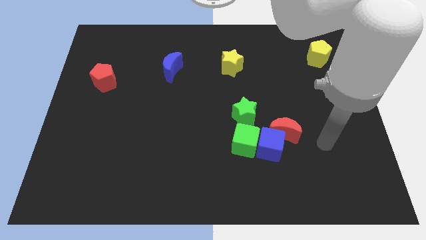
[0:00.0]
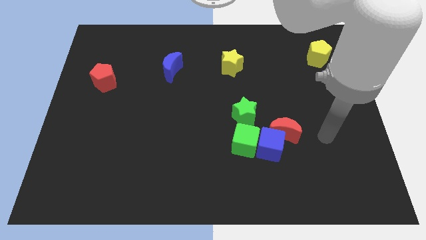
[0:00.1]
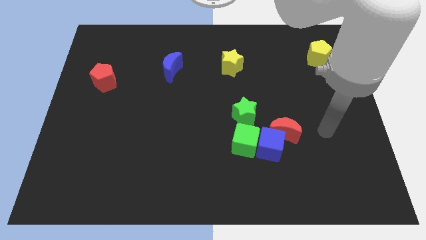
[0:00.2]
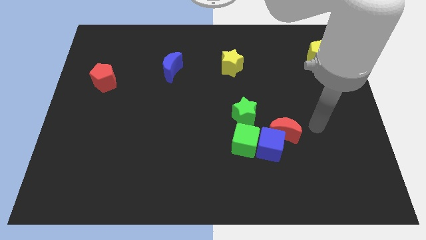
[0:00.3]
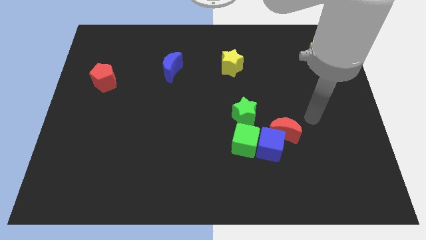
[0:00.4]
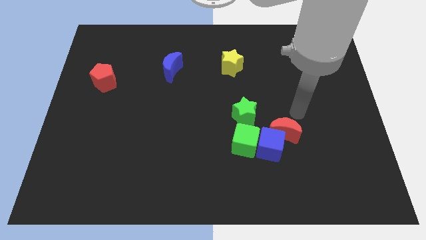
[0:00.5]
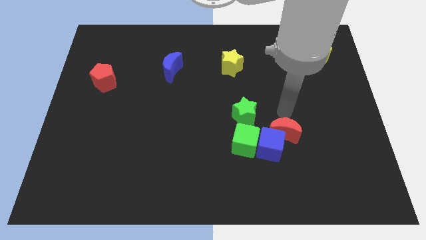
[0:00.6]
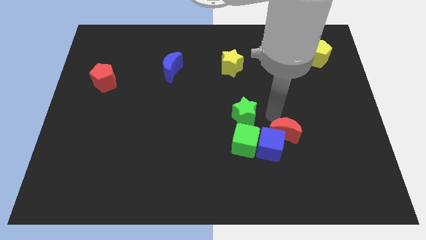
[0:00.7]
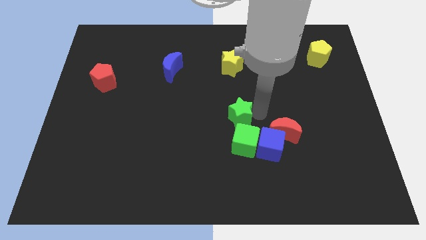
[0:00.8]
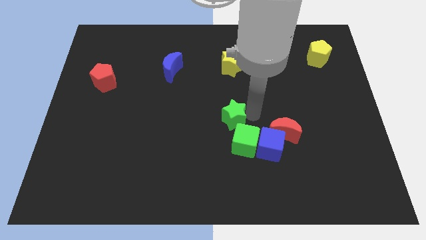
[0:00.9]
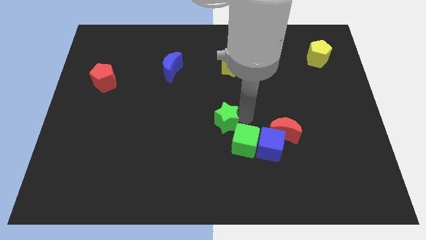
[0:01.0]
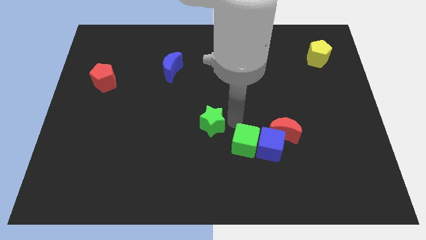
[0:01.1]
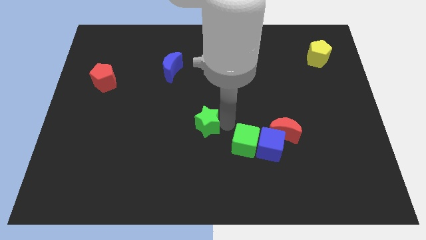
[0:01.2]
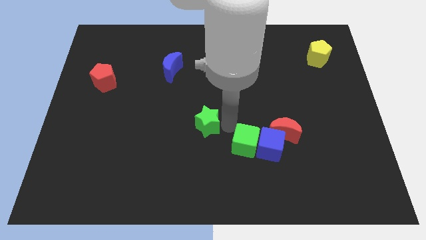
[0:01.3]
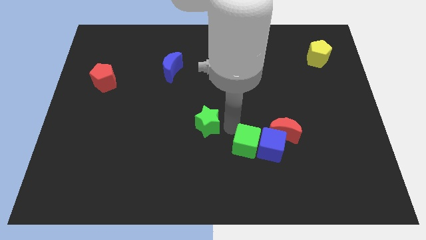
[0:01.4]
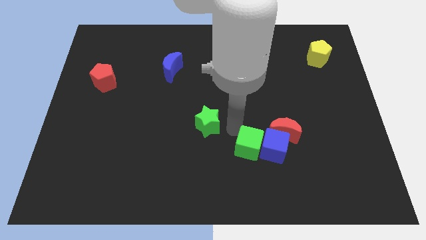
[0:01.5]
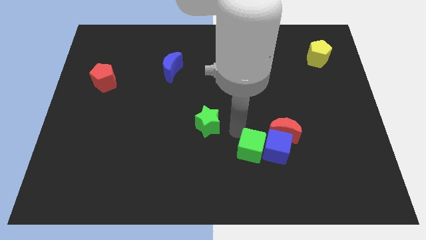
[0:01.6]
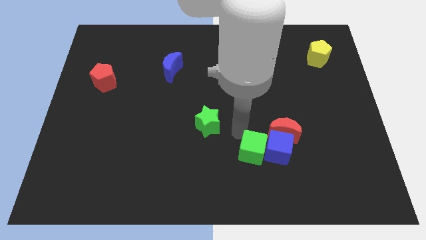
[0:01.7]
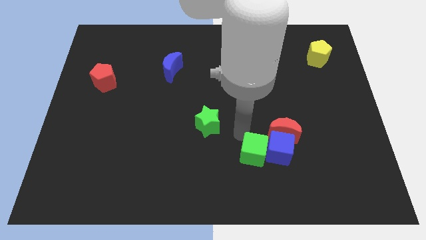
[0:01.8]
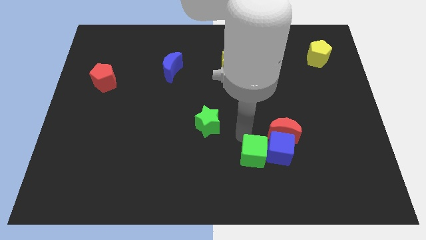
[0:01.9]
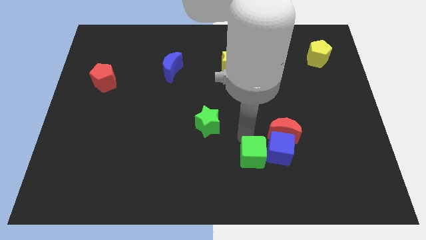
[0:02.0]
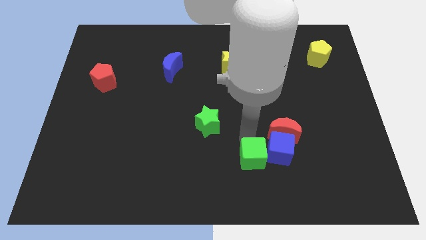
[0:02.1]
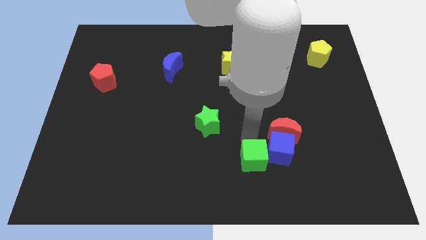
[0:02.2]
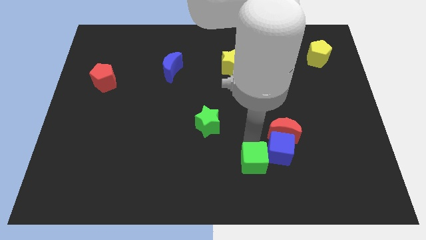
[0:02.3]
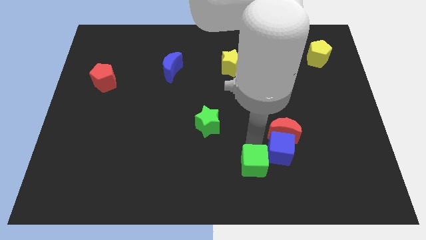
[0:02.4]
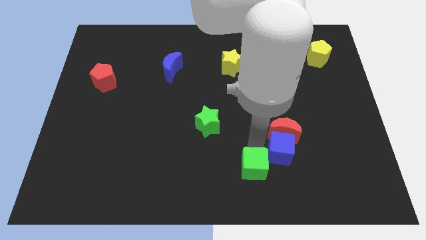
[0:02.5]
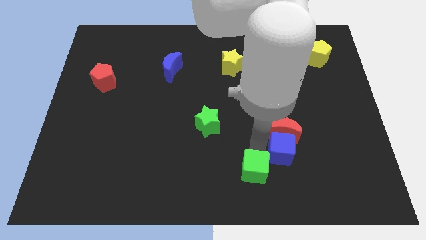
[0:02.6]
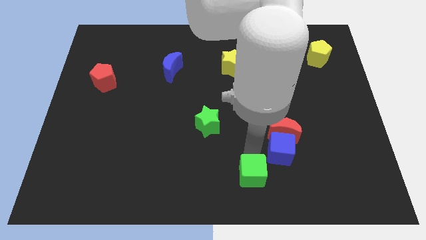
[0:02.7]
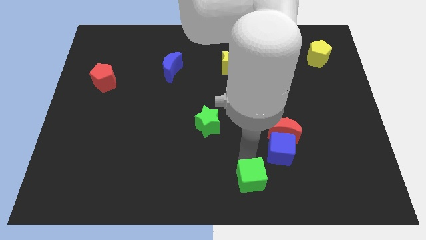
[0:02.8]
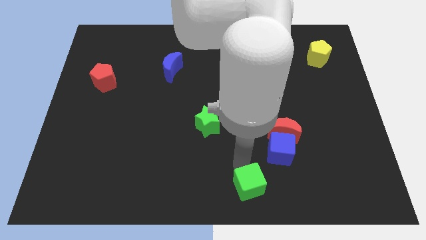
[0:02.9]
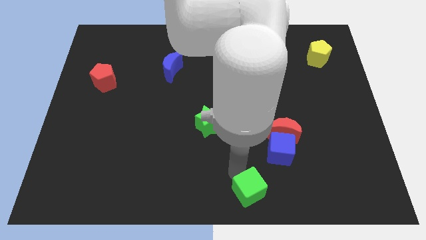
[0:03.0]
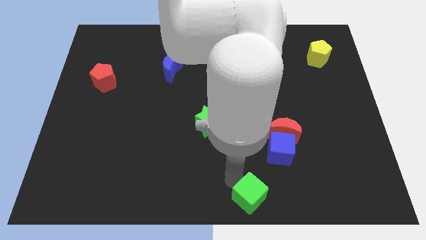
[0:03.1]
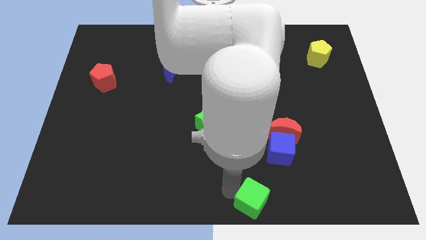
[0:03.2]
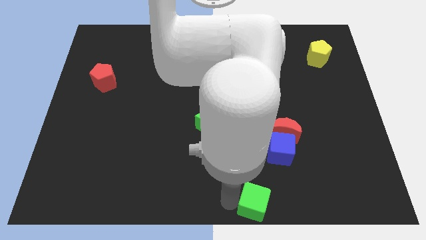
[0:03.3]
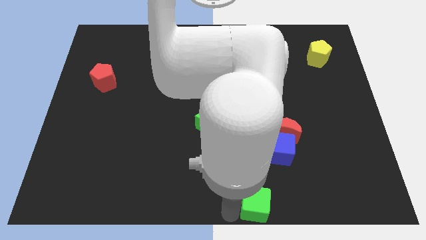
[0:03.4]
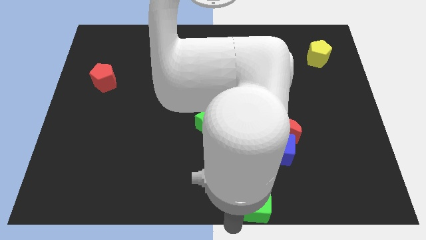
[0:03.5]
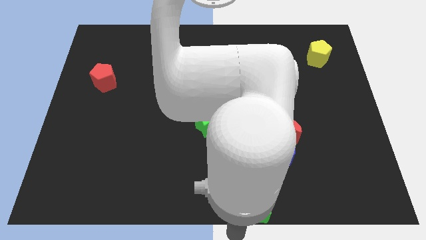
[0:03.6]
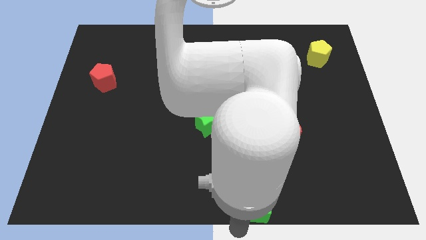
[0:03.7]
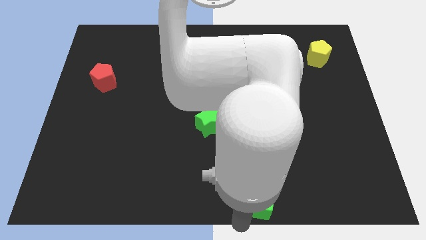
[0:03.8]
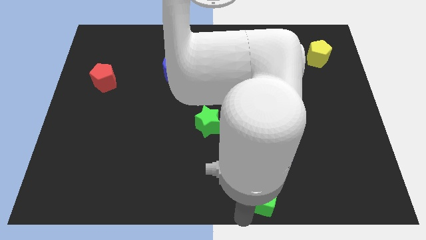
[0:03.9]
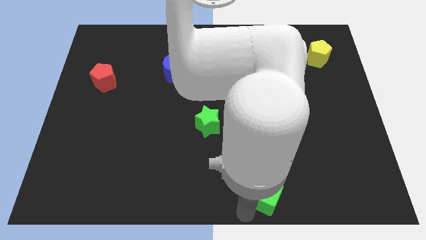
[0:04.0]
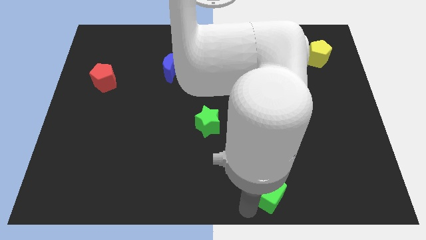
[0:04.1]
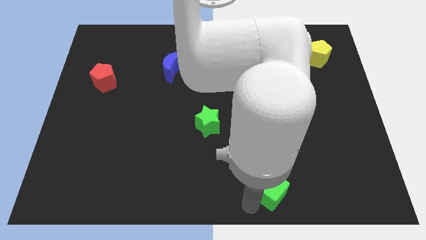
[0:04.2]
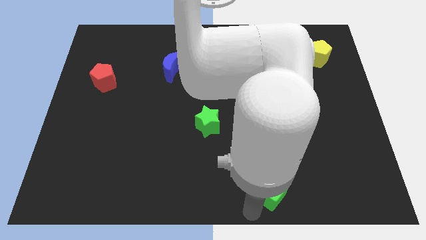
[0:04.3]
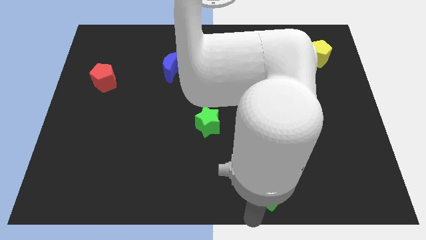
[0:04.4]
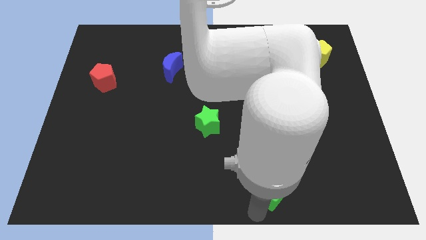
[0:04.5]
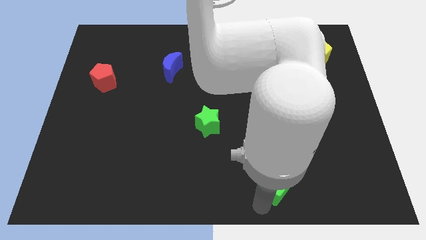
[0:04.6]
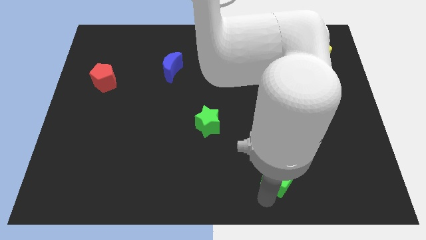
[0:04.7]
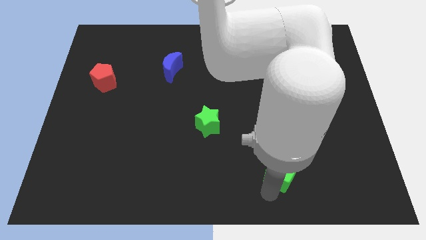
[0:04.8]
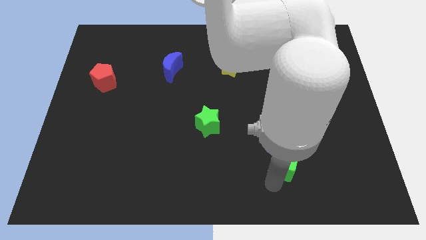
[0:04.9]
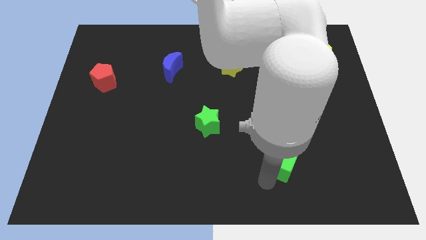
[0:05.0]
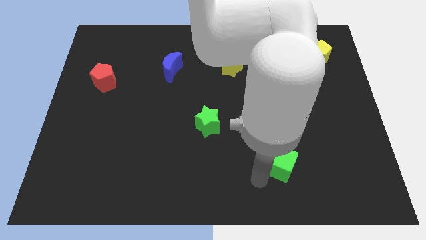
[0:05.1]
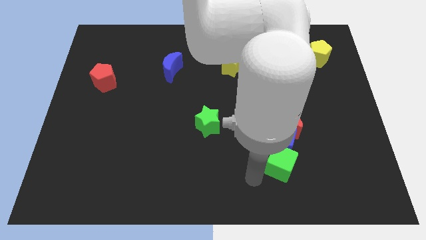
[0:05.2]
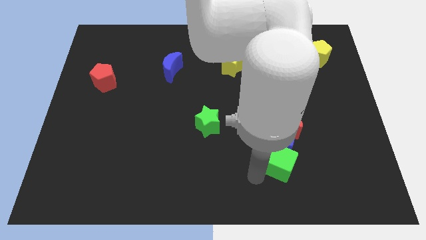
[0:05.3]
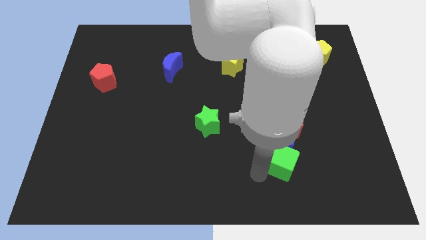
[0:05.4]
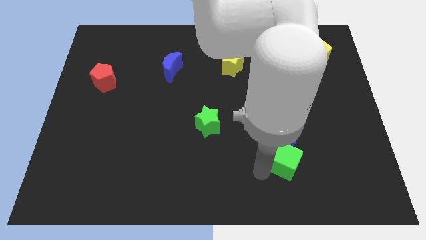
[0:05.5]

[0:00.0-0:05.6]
slide the green cube somewhat right

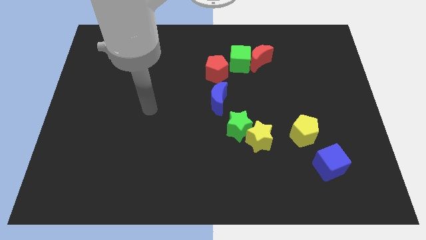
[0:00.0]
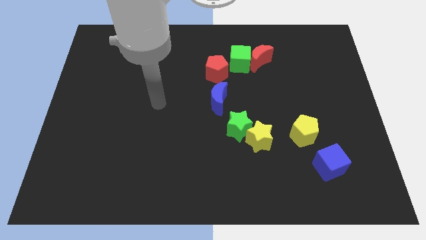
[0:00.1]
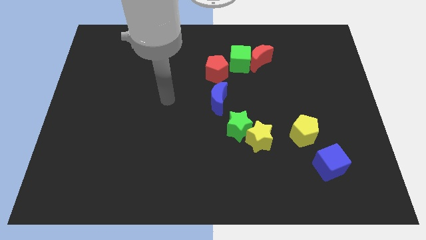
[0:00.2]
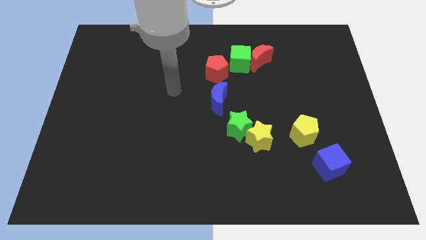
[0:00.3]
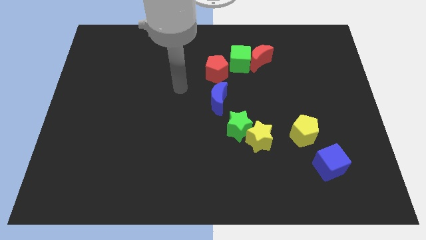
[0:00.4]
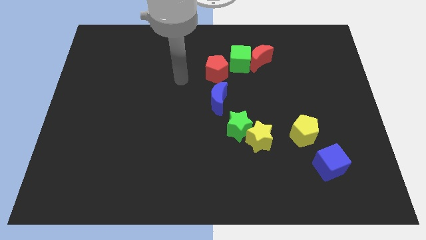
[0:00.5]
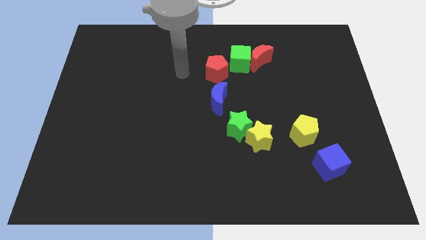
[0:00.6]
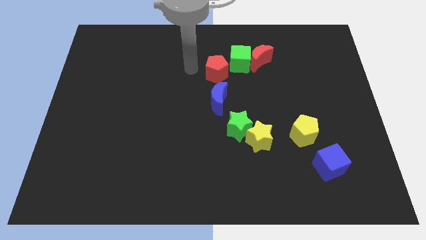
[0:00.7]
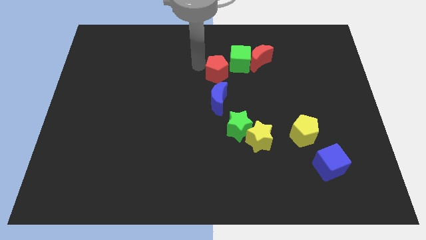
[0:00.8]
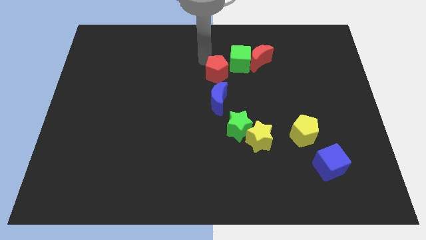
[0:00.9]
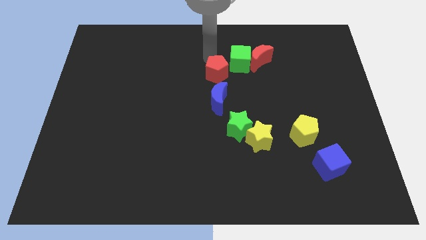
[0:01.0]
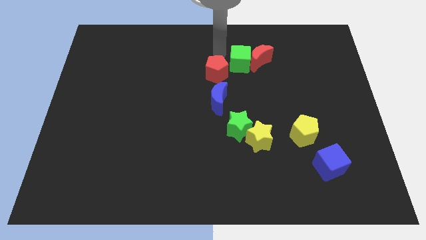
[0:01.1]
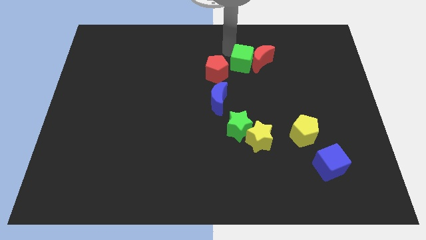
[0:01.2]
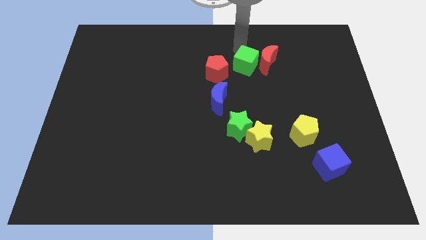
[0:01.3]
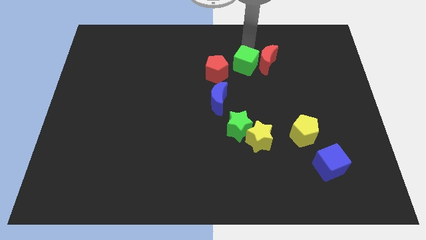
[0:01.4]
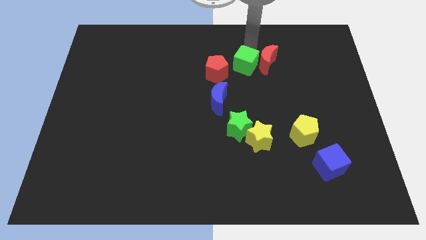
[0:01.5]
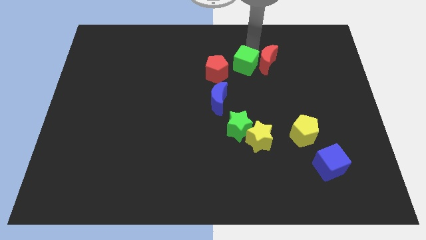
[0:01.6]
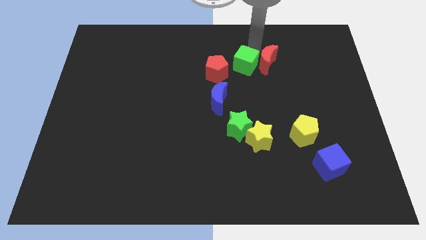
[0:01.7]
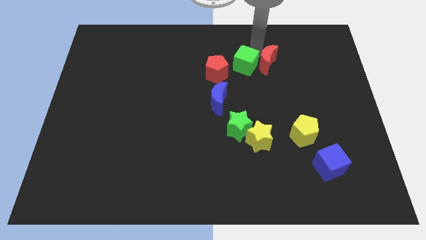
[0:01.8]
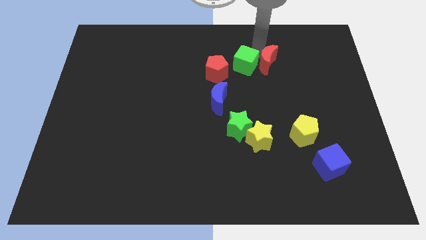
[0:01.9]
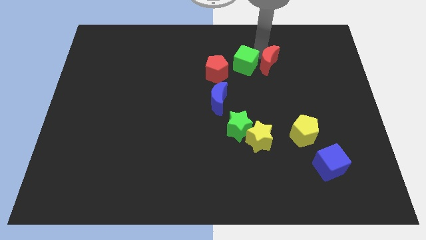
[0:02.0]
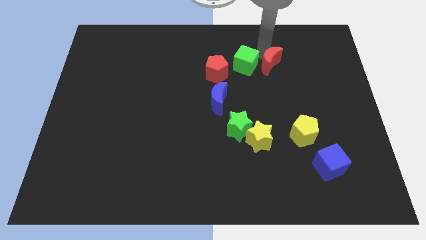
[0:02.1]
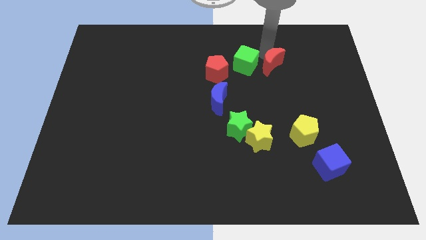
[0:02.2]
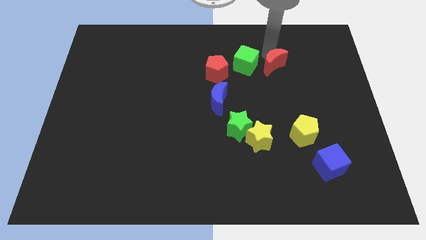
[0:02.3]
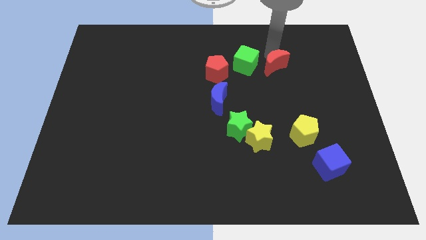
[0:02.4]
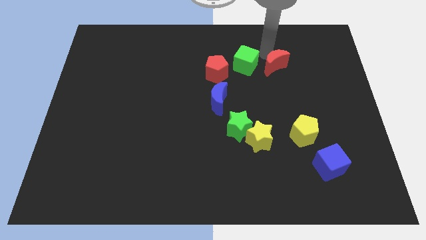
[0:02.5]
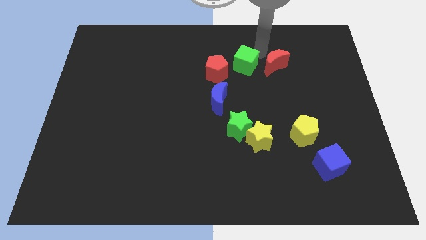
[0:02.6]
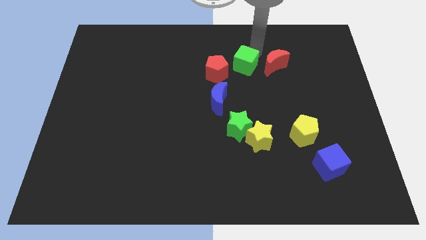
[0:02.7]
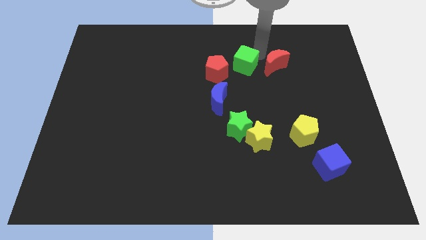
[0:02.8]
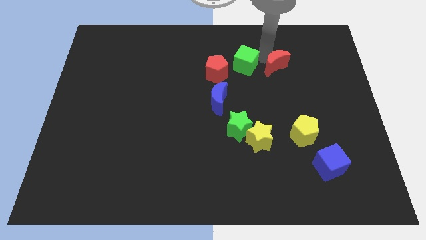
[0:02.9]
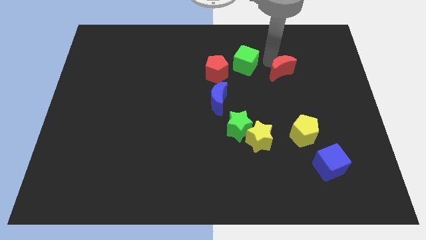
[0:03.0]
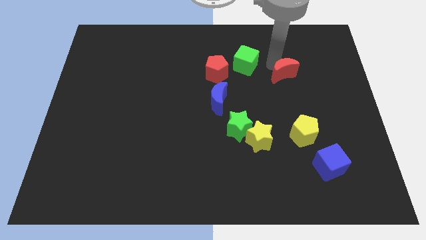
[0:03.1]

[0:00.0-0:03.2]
slightly move the red moon downwards and to the right diagonally
